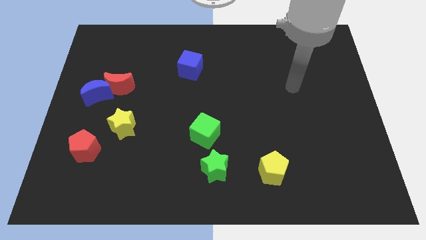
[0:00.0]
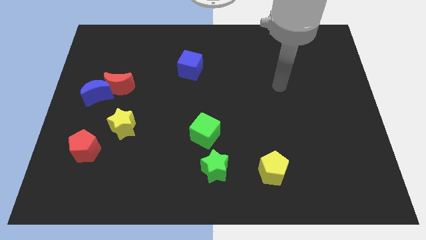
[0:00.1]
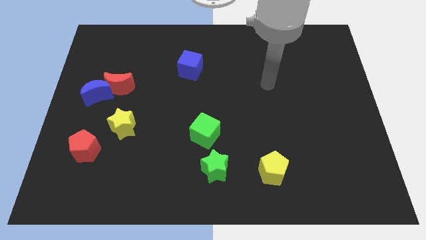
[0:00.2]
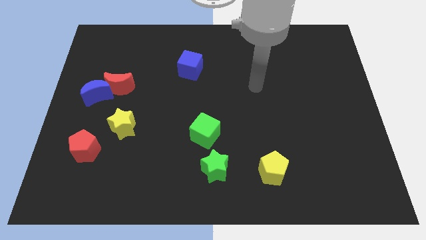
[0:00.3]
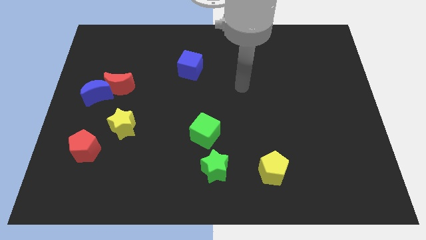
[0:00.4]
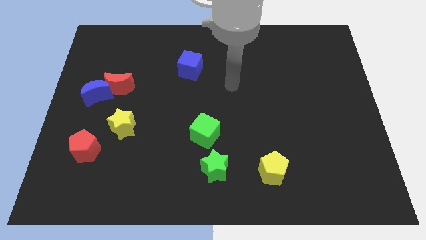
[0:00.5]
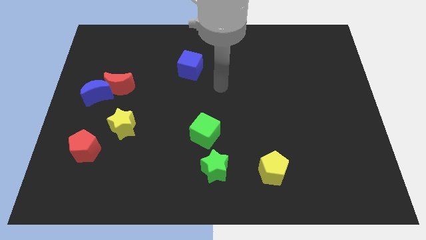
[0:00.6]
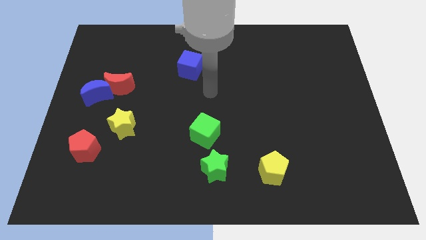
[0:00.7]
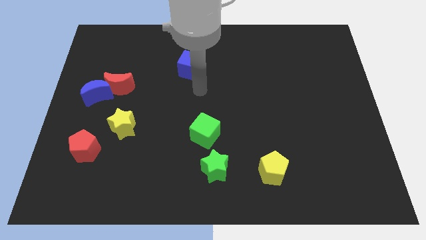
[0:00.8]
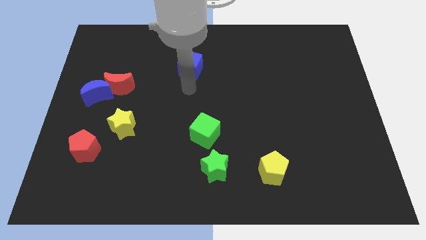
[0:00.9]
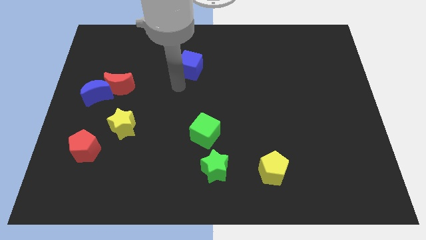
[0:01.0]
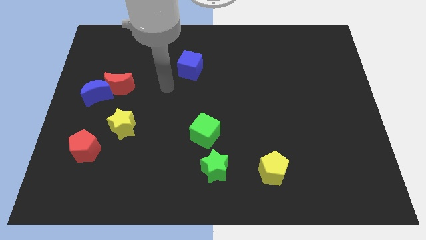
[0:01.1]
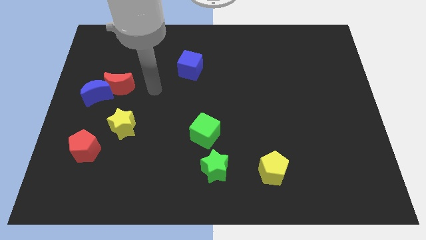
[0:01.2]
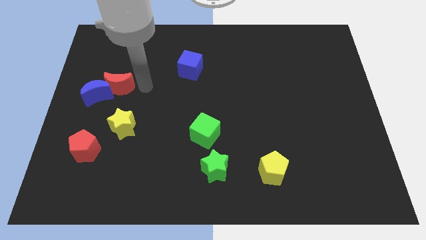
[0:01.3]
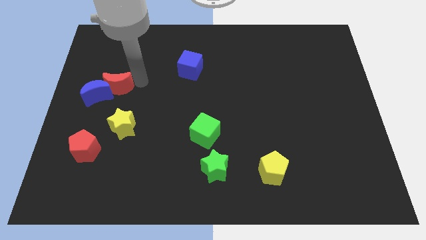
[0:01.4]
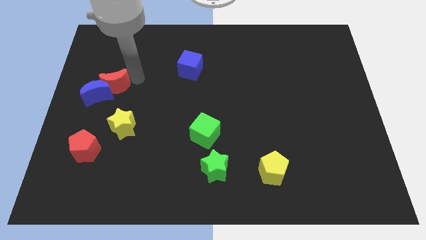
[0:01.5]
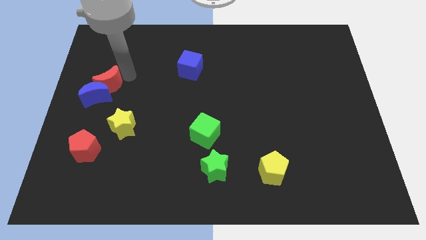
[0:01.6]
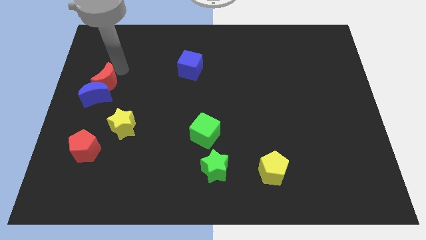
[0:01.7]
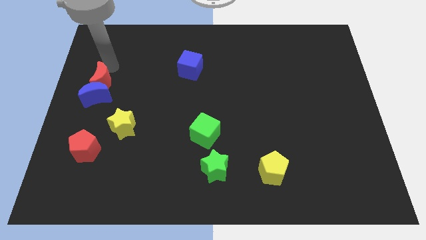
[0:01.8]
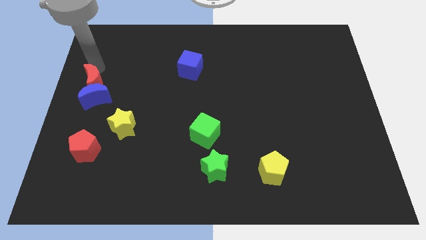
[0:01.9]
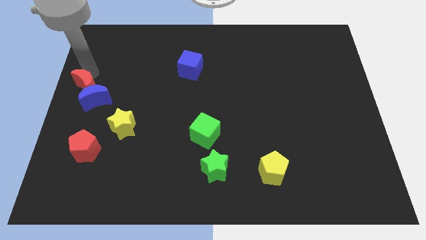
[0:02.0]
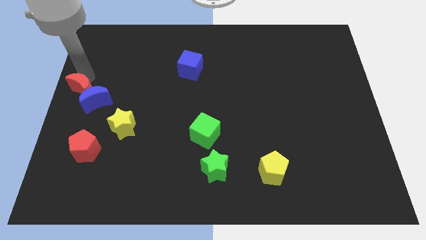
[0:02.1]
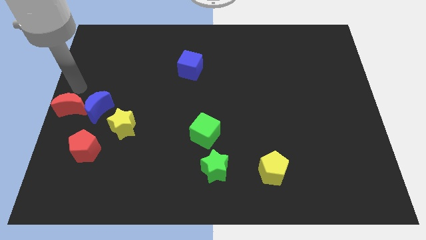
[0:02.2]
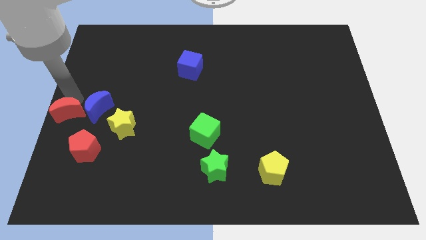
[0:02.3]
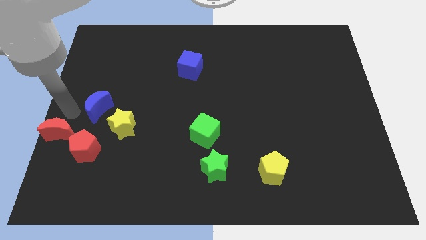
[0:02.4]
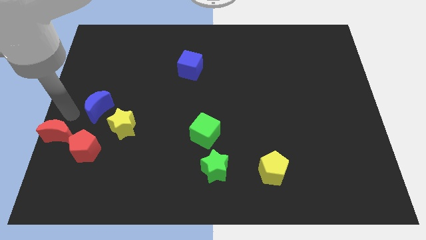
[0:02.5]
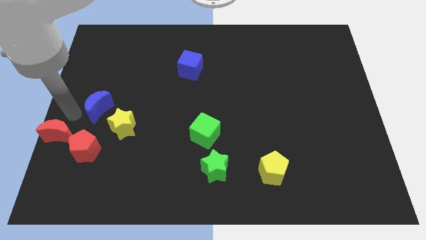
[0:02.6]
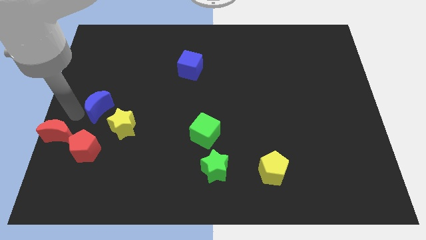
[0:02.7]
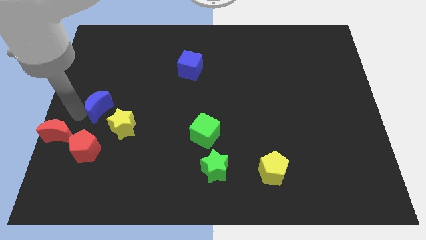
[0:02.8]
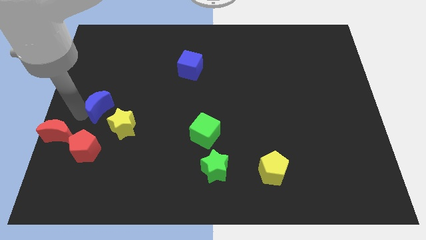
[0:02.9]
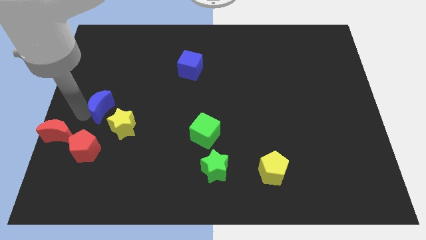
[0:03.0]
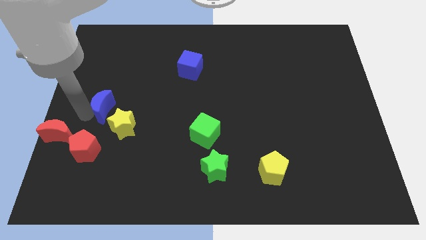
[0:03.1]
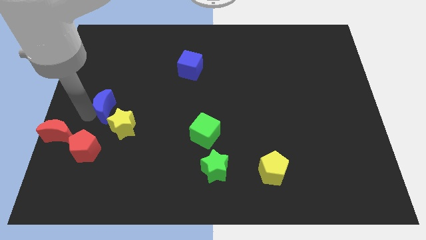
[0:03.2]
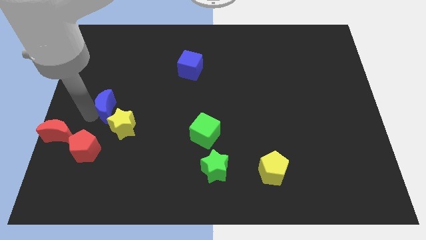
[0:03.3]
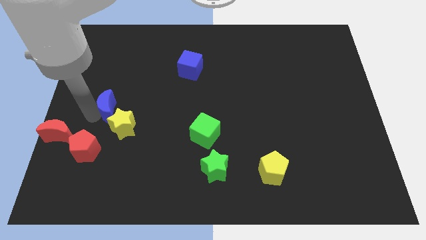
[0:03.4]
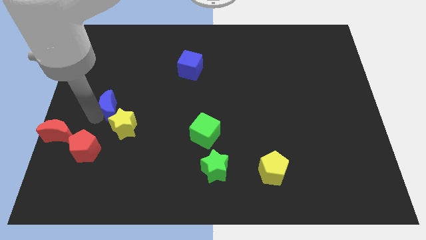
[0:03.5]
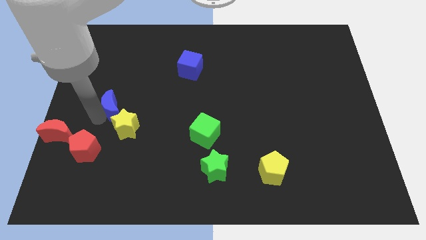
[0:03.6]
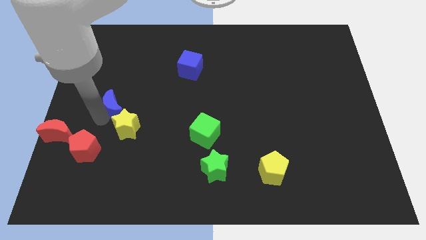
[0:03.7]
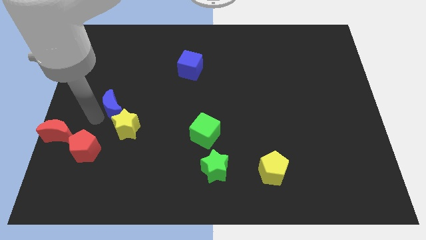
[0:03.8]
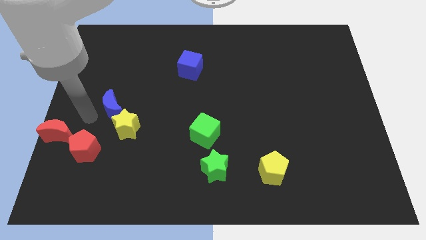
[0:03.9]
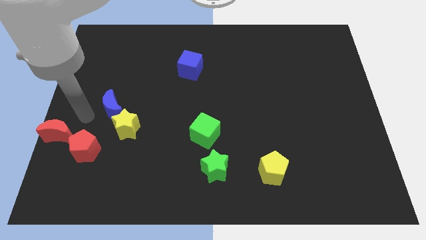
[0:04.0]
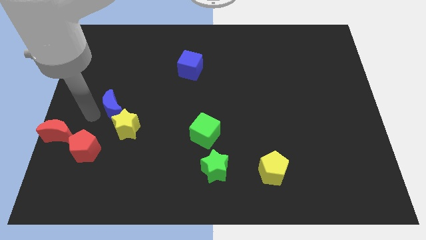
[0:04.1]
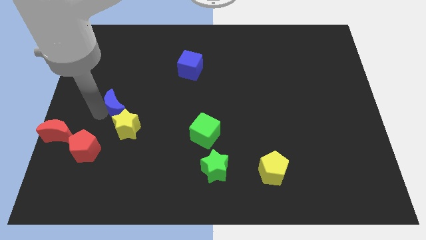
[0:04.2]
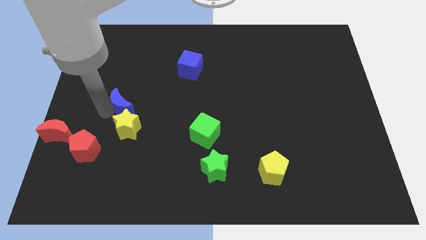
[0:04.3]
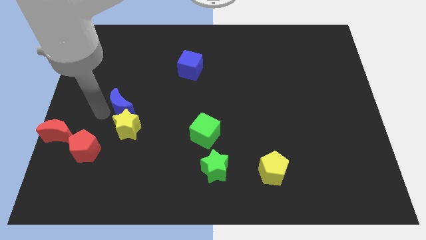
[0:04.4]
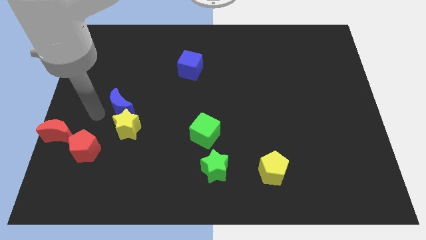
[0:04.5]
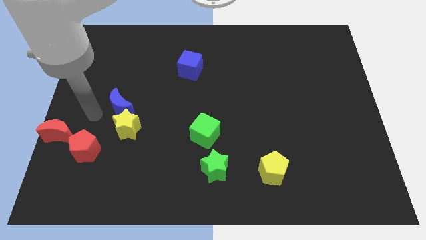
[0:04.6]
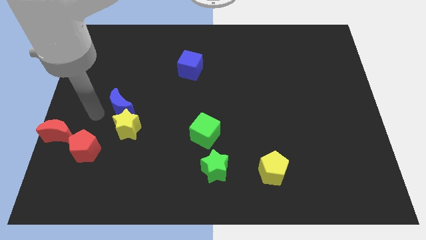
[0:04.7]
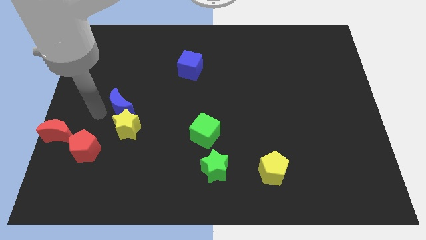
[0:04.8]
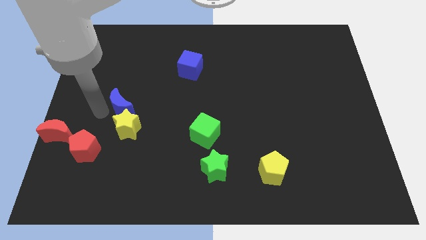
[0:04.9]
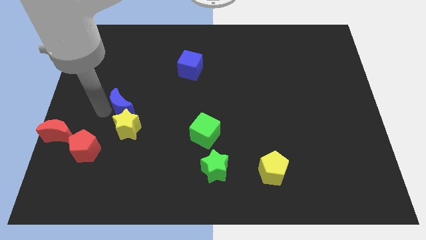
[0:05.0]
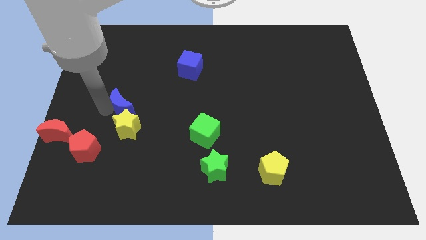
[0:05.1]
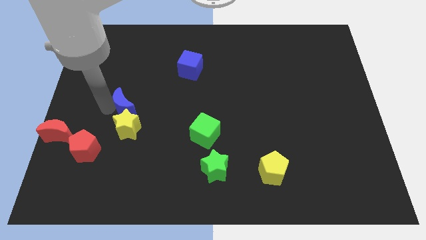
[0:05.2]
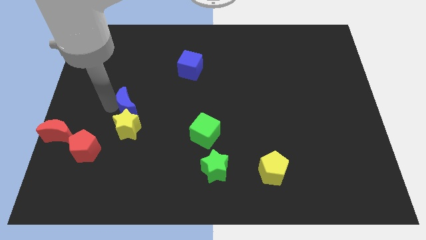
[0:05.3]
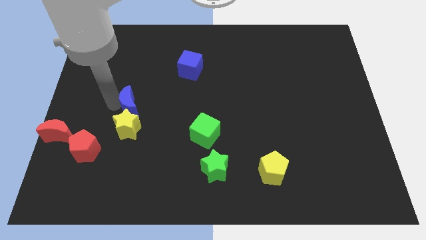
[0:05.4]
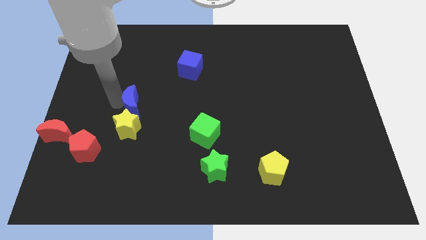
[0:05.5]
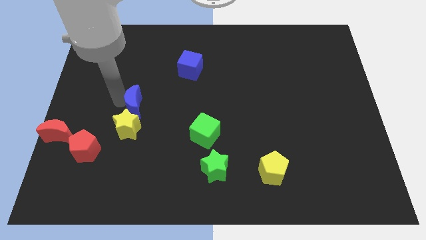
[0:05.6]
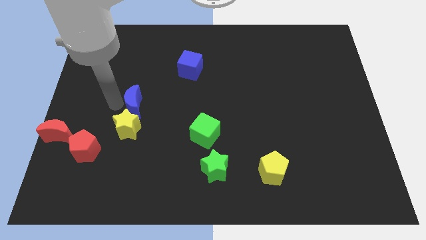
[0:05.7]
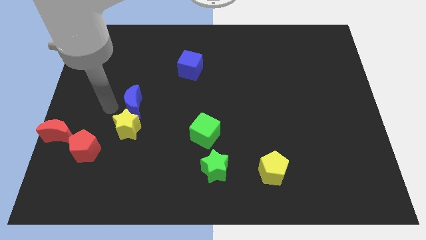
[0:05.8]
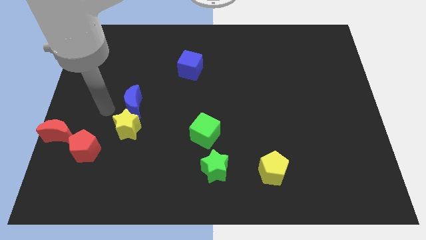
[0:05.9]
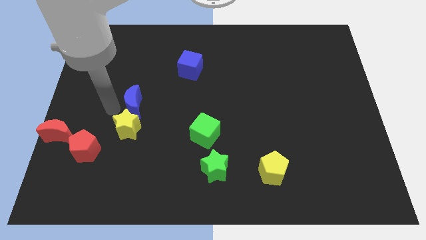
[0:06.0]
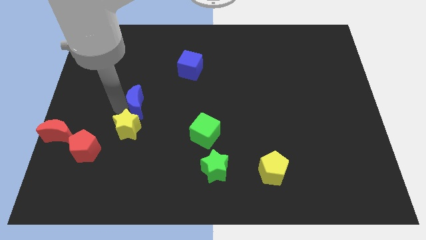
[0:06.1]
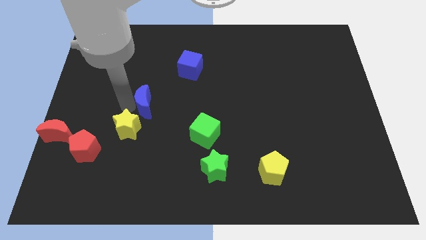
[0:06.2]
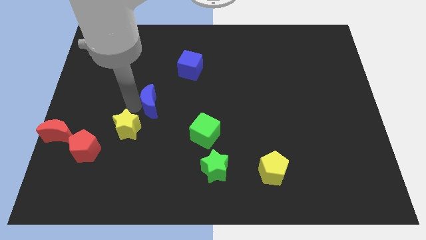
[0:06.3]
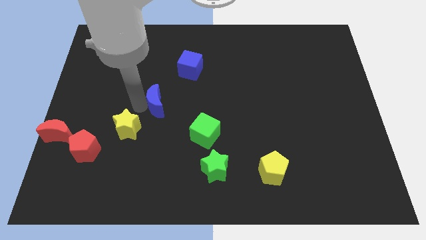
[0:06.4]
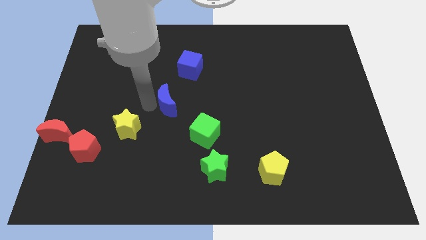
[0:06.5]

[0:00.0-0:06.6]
push the blue moon to the middle of the board
